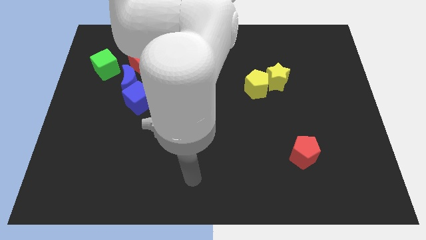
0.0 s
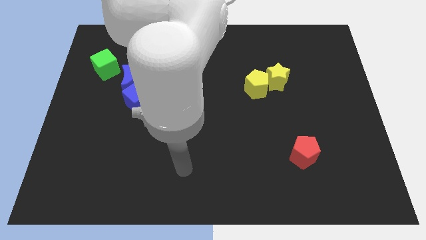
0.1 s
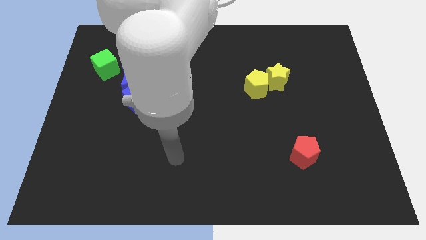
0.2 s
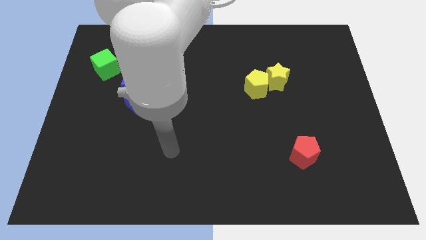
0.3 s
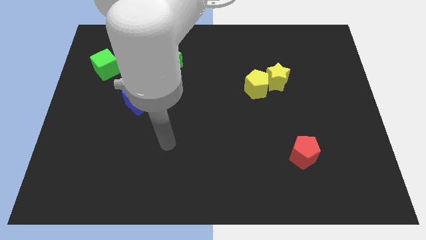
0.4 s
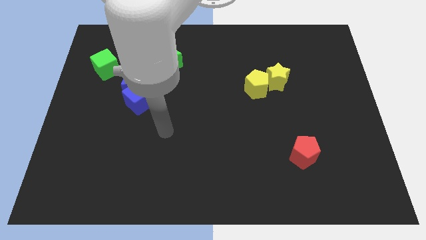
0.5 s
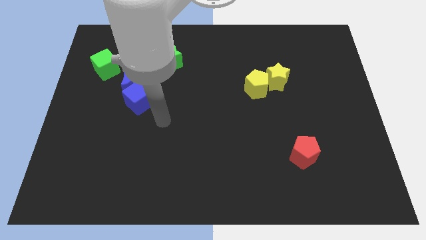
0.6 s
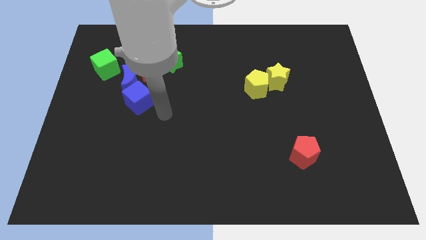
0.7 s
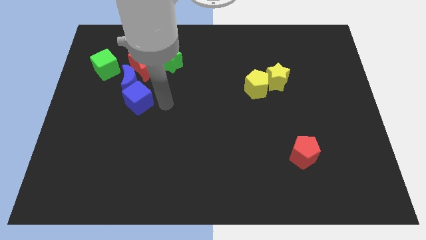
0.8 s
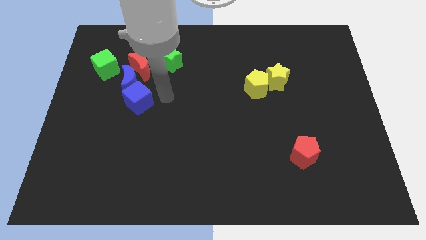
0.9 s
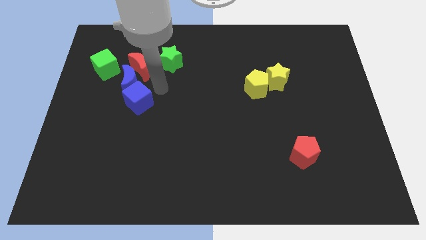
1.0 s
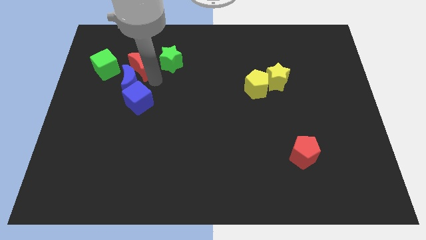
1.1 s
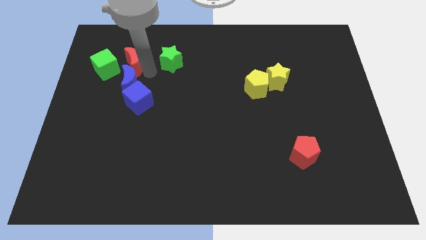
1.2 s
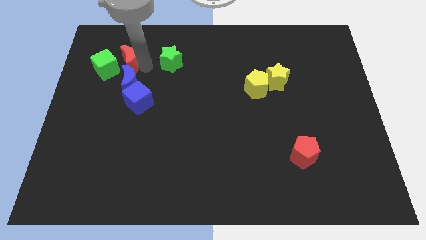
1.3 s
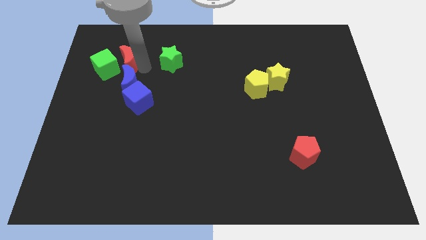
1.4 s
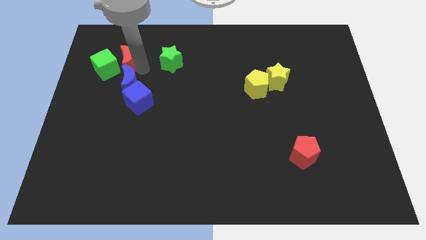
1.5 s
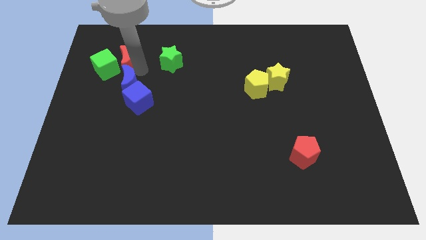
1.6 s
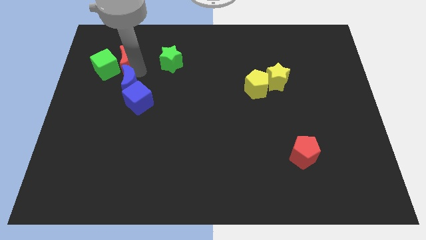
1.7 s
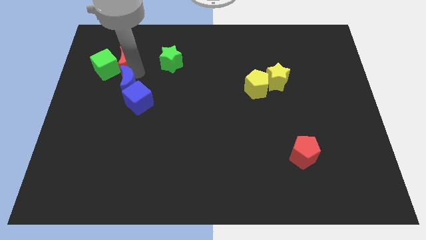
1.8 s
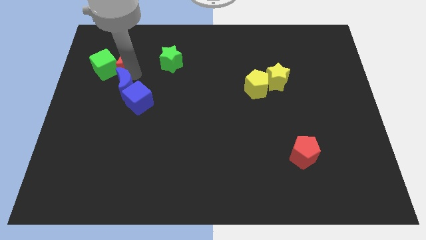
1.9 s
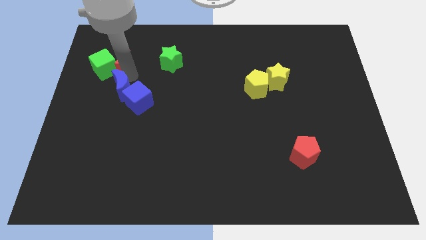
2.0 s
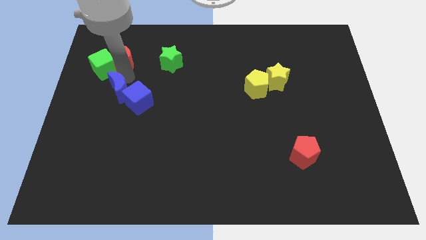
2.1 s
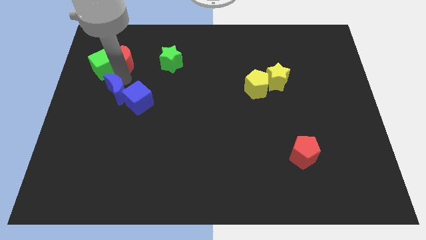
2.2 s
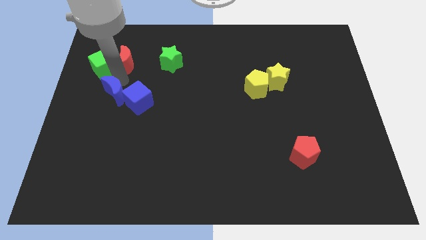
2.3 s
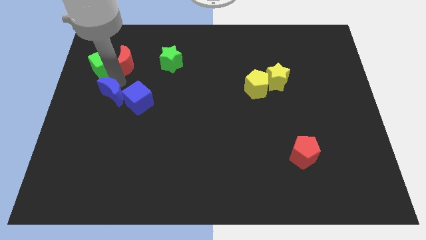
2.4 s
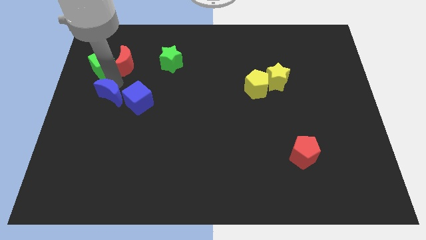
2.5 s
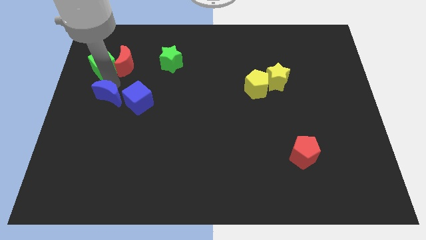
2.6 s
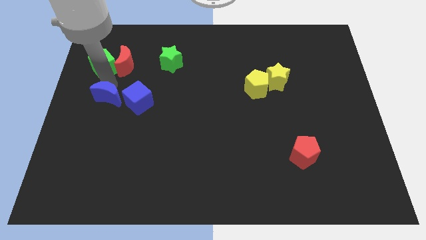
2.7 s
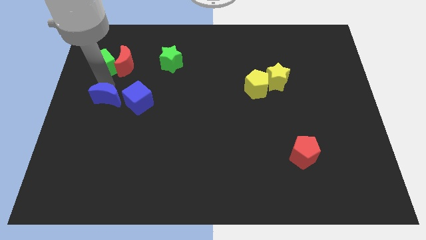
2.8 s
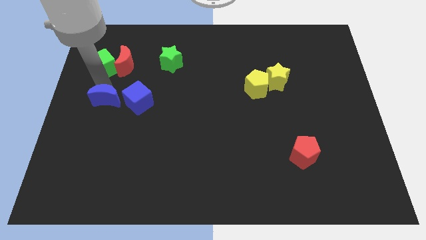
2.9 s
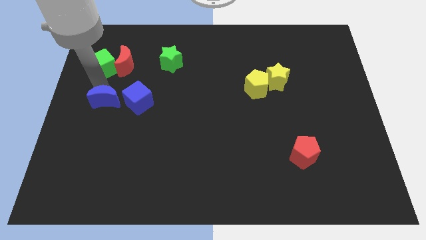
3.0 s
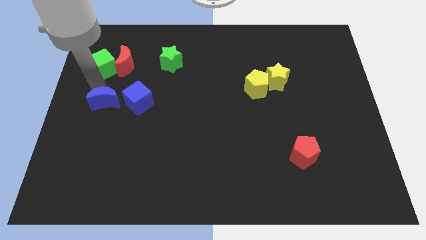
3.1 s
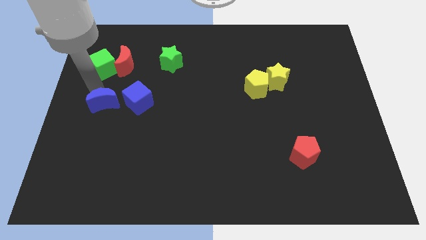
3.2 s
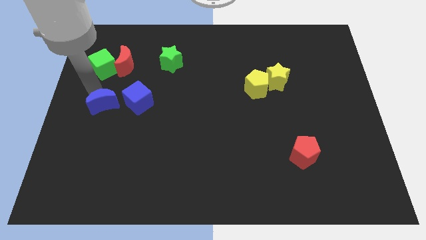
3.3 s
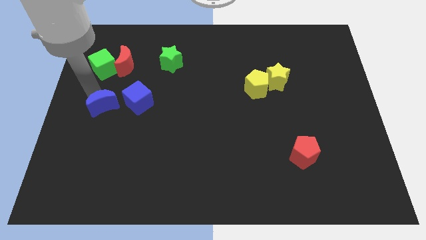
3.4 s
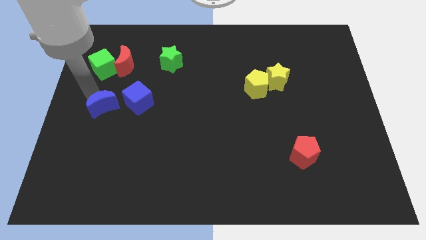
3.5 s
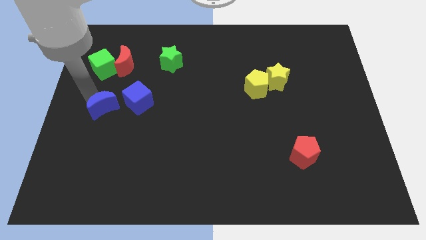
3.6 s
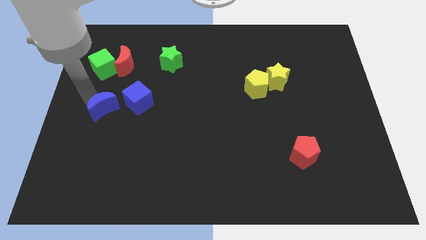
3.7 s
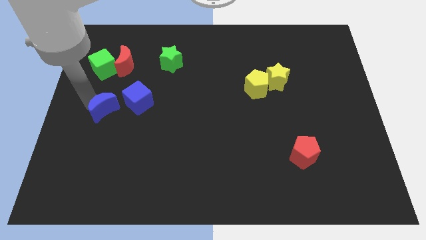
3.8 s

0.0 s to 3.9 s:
slightly push the blue moon downwards

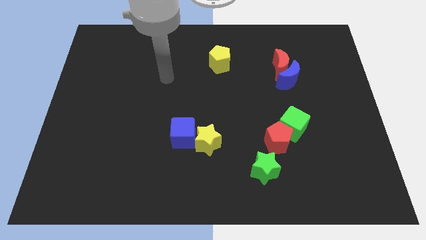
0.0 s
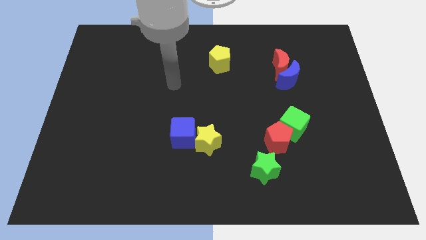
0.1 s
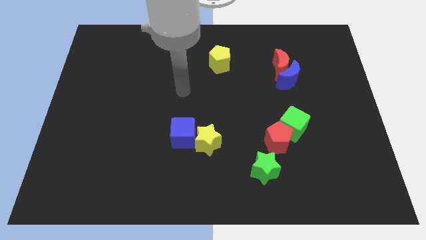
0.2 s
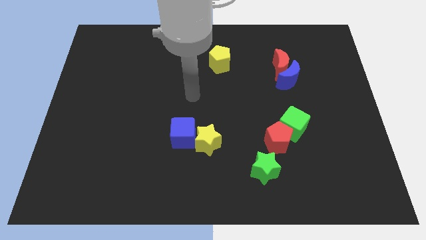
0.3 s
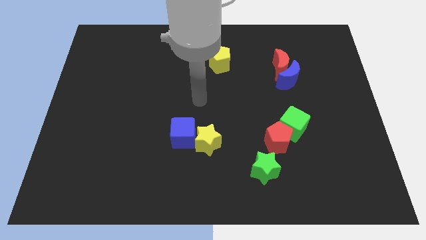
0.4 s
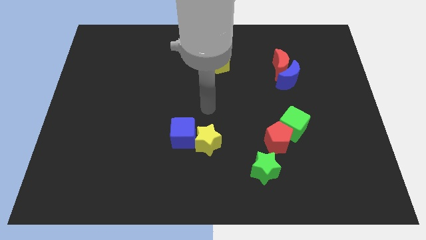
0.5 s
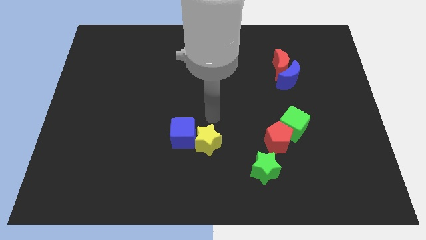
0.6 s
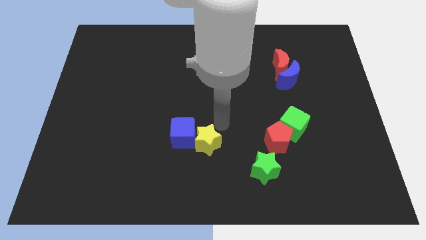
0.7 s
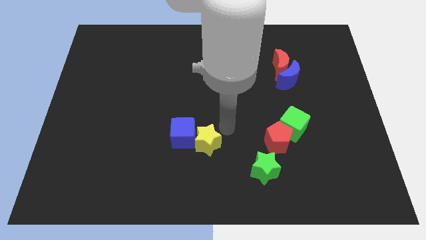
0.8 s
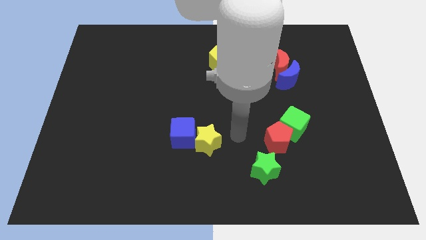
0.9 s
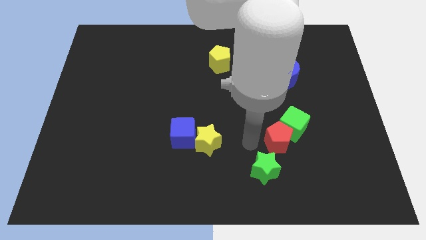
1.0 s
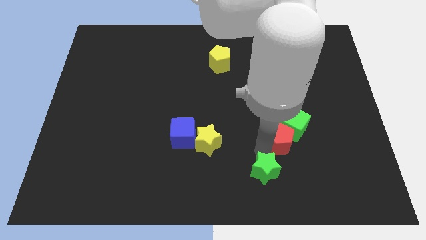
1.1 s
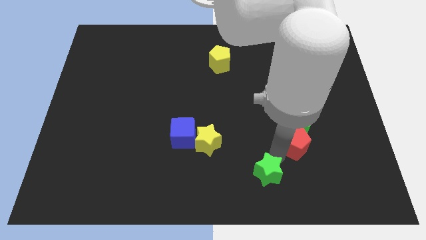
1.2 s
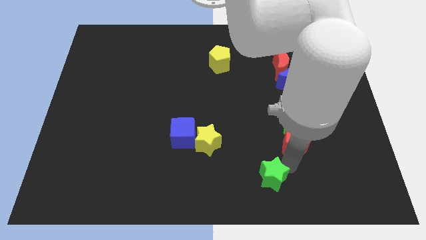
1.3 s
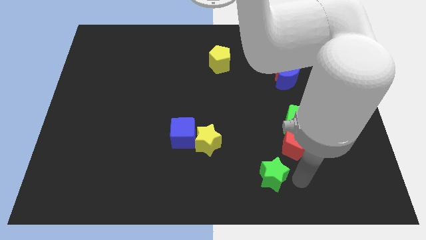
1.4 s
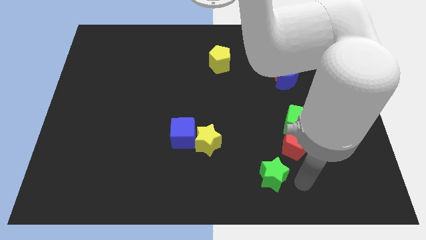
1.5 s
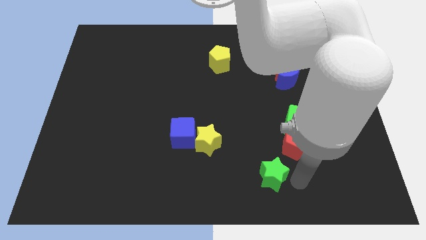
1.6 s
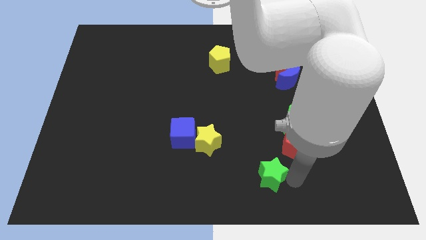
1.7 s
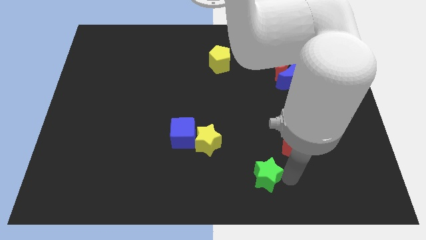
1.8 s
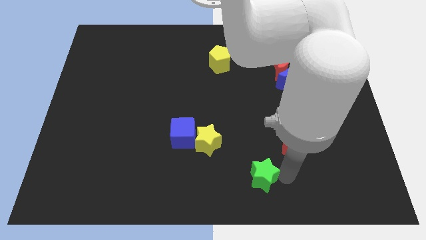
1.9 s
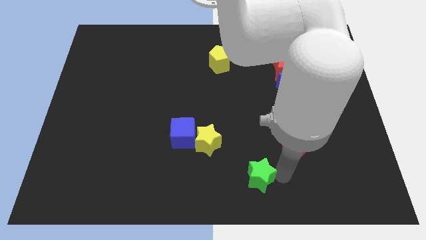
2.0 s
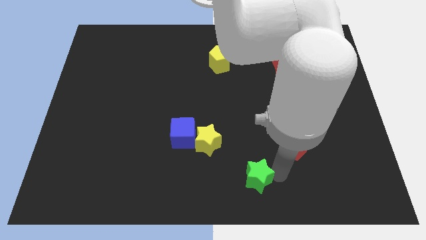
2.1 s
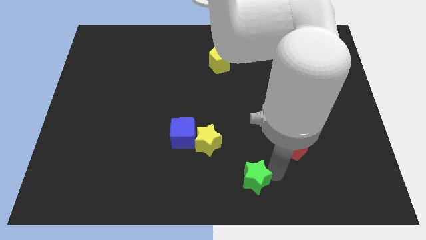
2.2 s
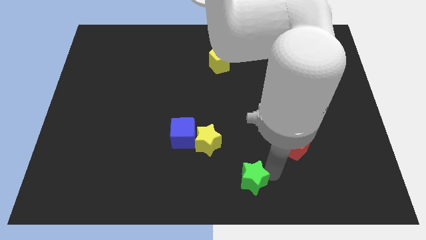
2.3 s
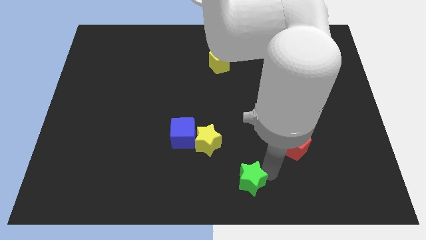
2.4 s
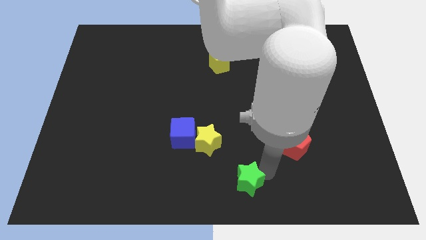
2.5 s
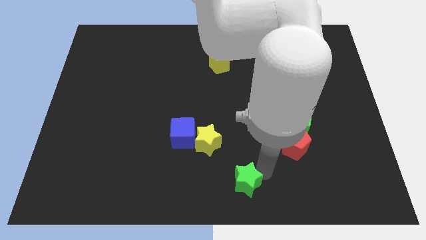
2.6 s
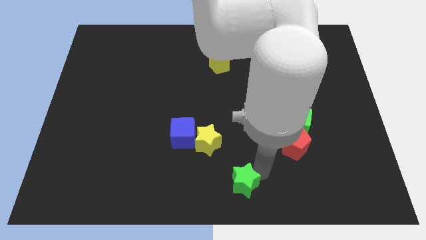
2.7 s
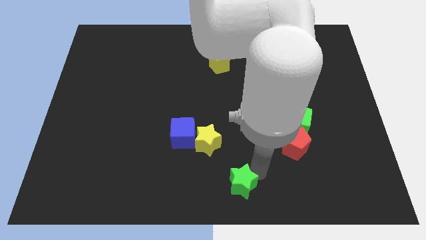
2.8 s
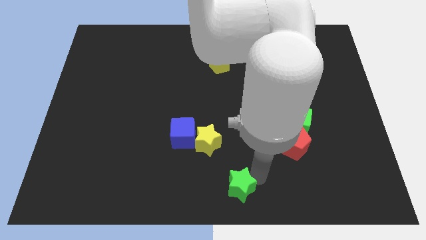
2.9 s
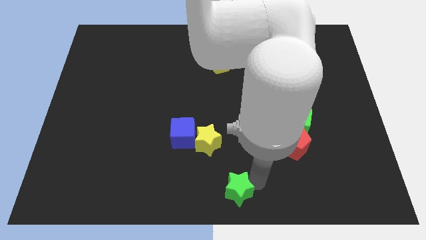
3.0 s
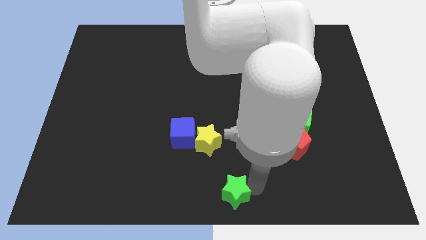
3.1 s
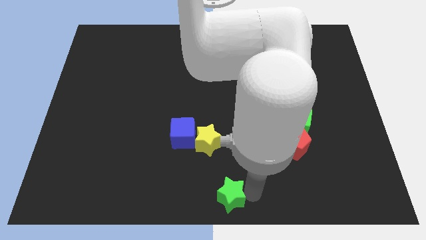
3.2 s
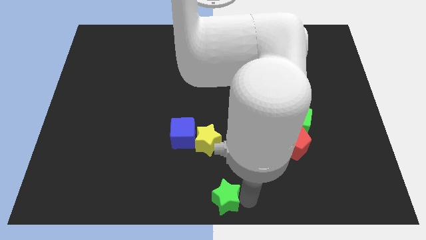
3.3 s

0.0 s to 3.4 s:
push the green star a bit to the left

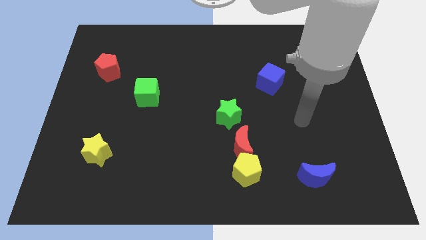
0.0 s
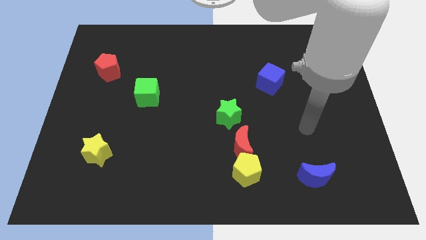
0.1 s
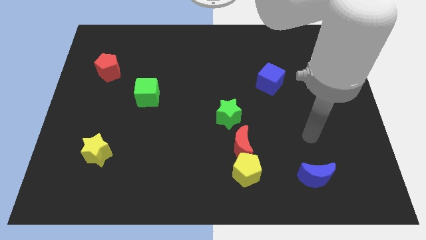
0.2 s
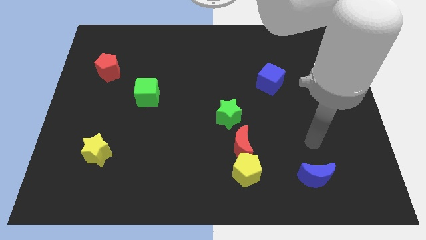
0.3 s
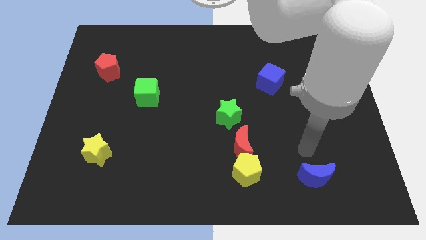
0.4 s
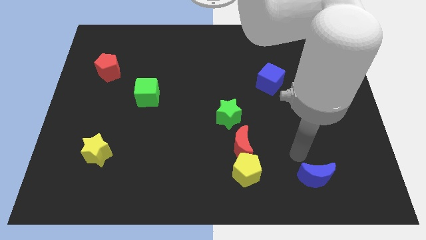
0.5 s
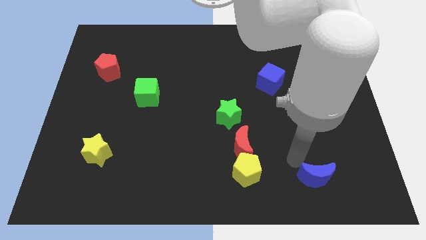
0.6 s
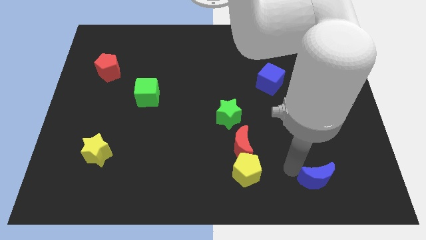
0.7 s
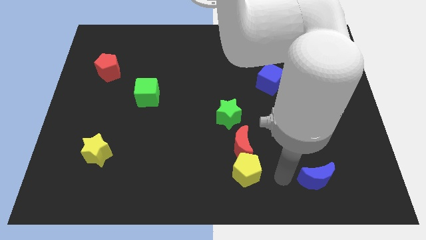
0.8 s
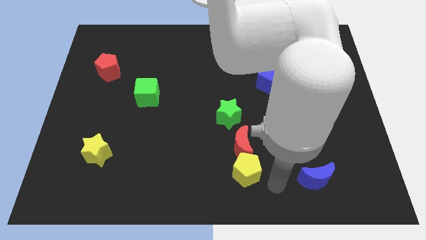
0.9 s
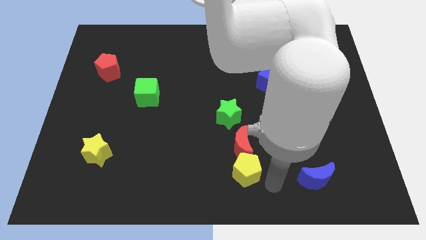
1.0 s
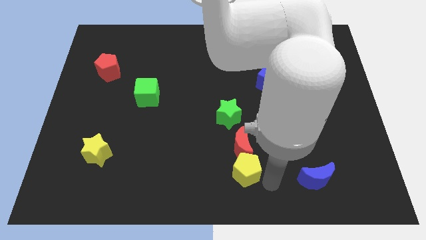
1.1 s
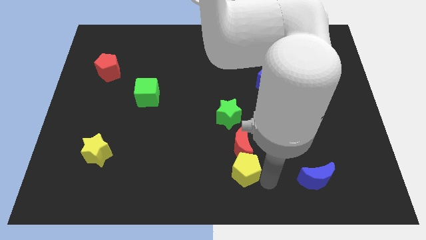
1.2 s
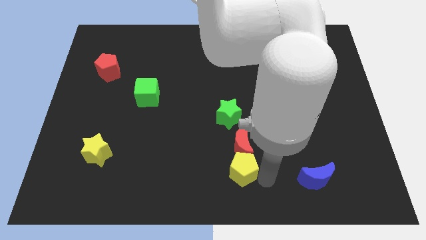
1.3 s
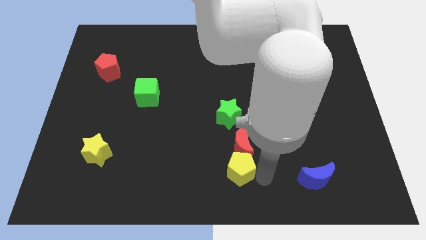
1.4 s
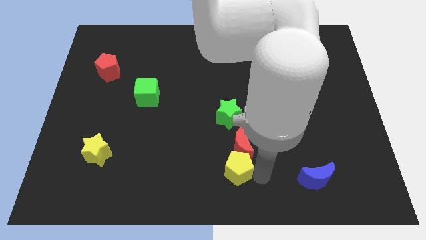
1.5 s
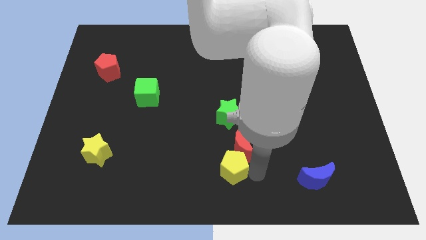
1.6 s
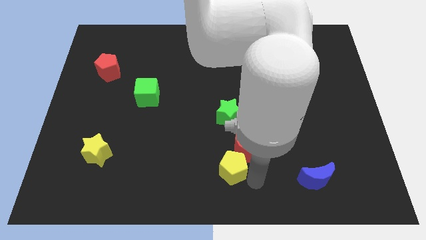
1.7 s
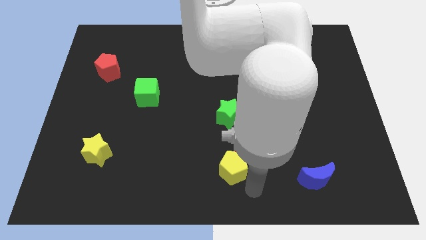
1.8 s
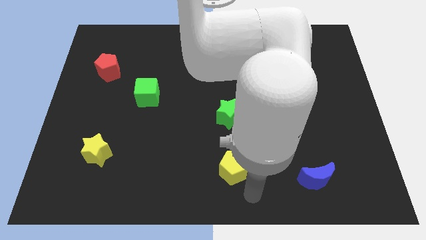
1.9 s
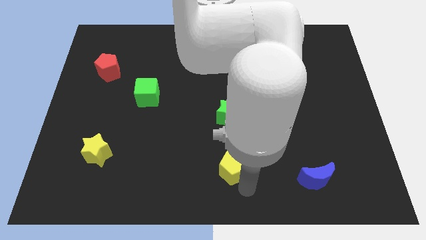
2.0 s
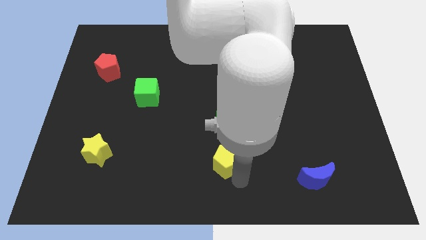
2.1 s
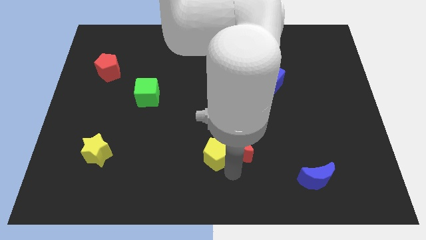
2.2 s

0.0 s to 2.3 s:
move the yellow pentagon somewhat up and to the left diagonally
